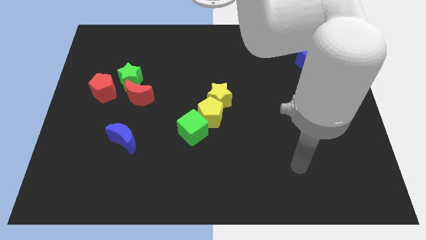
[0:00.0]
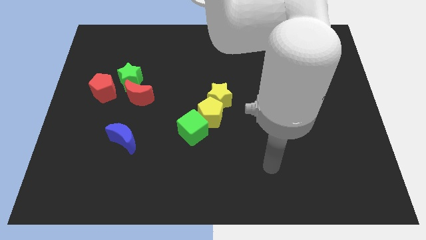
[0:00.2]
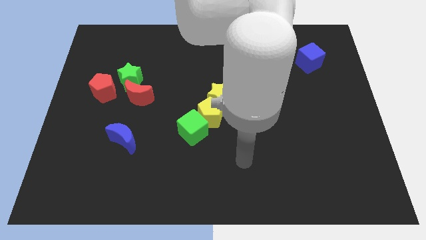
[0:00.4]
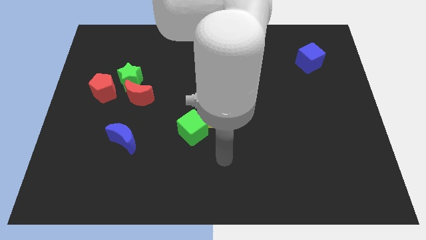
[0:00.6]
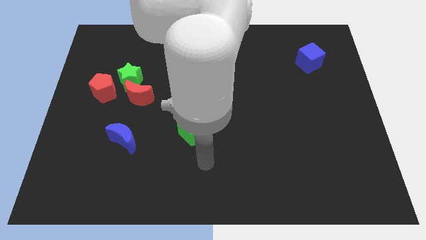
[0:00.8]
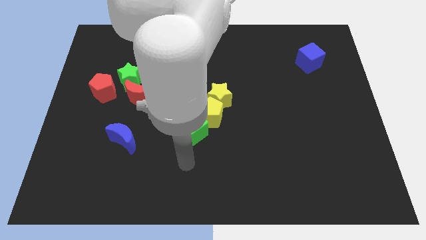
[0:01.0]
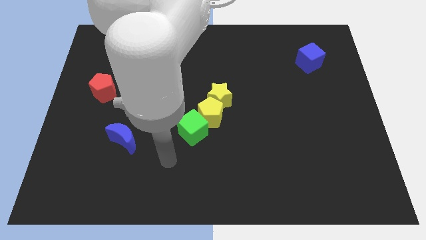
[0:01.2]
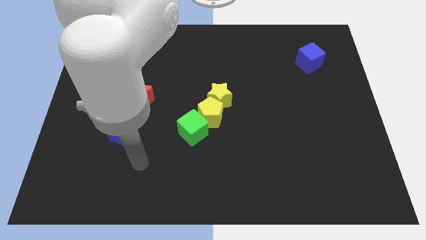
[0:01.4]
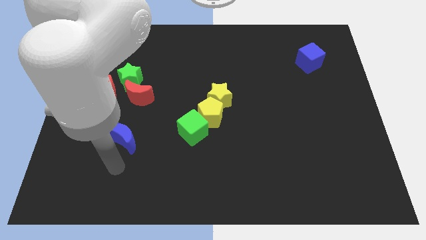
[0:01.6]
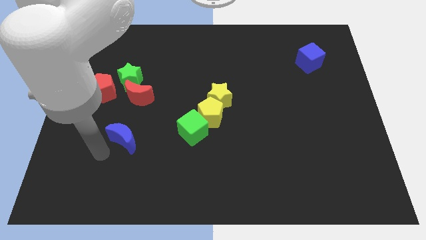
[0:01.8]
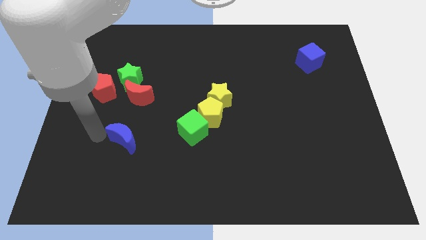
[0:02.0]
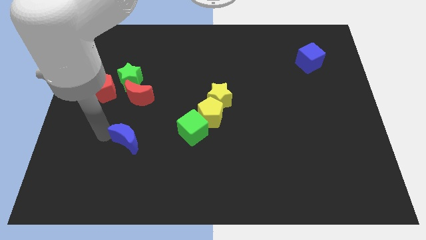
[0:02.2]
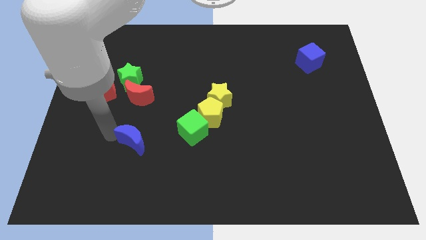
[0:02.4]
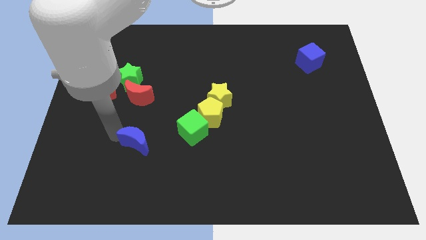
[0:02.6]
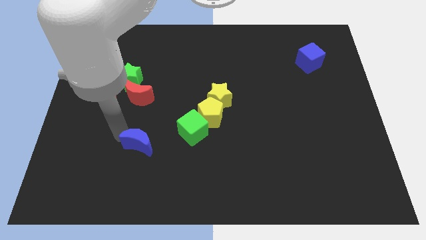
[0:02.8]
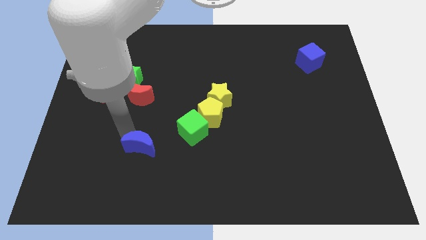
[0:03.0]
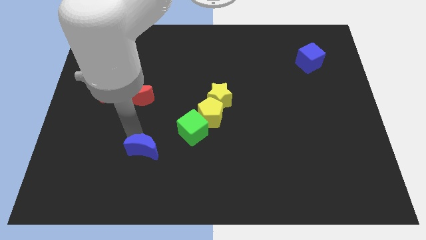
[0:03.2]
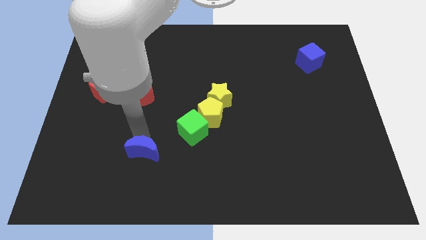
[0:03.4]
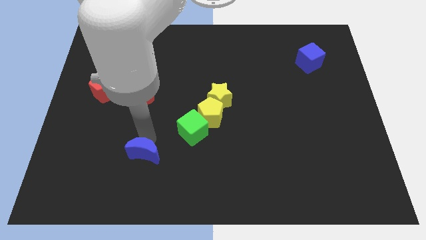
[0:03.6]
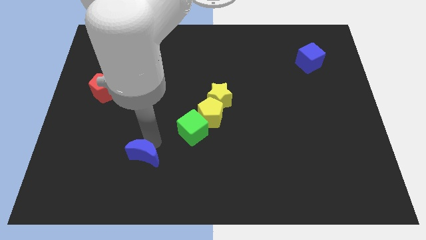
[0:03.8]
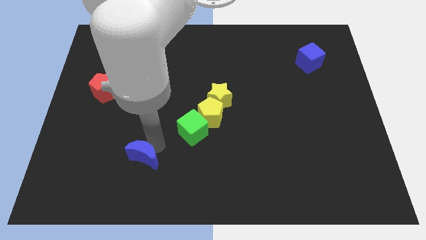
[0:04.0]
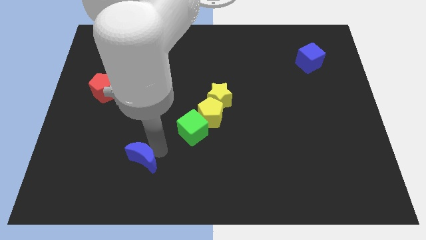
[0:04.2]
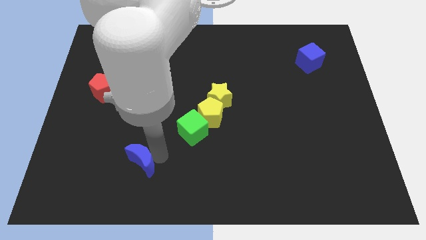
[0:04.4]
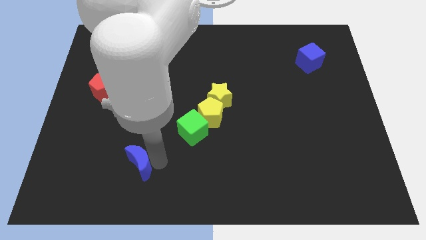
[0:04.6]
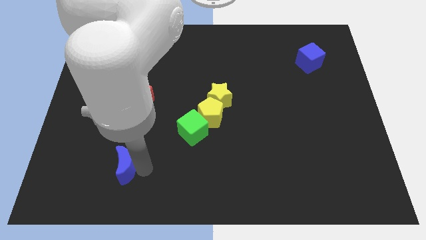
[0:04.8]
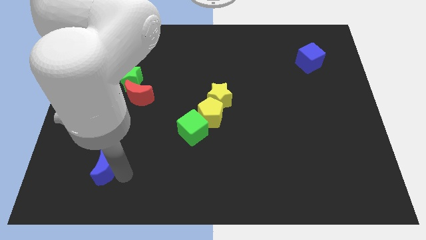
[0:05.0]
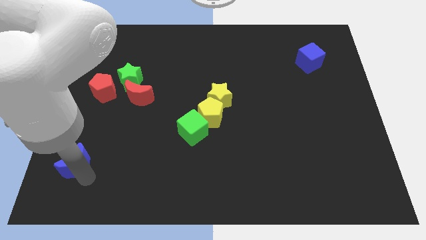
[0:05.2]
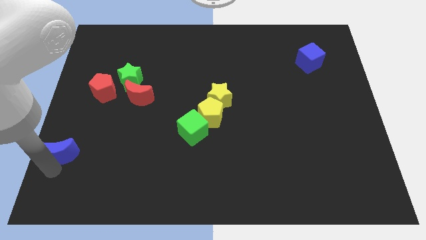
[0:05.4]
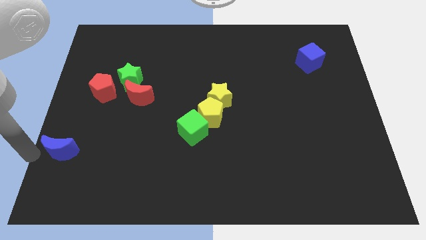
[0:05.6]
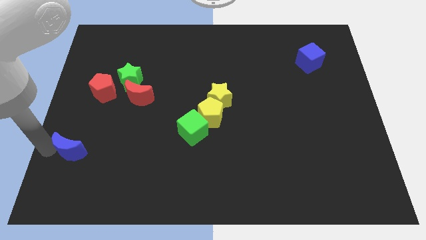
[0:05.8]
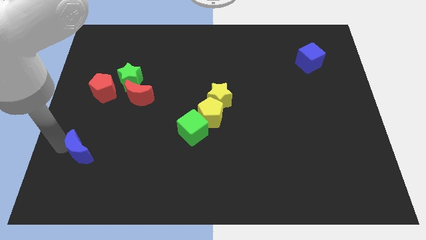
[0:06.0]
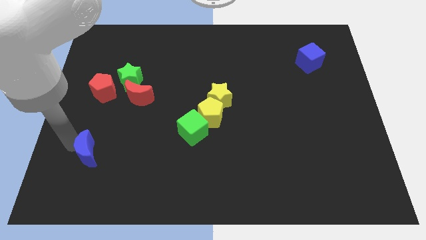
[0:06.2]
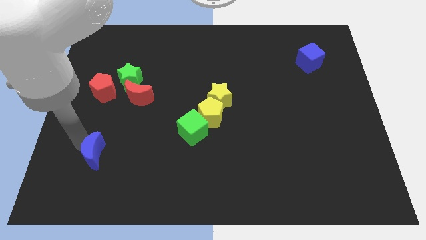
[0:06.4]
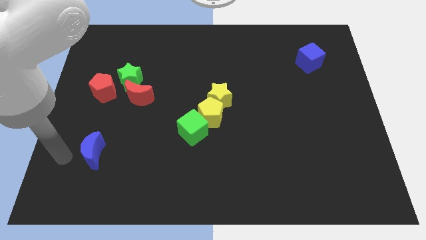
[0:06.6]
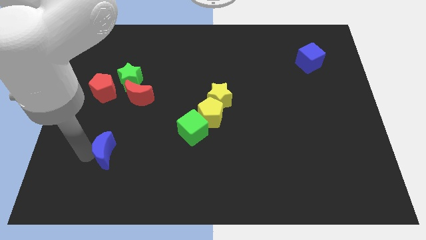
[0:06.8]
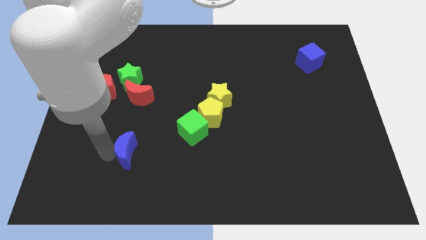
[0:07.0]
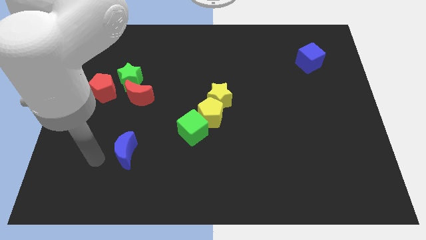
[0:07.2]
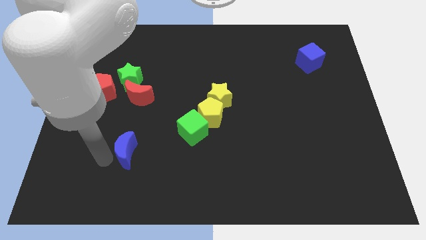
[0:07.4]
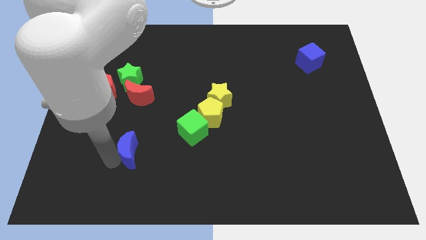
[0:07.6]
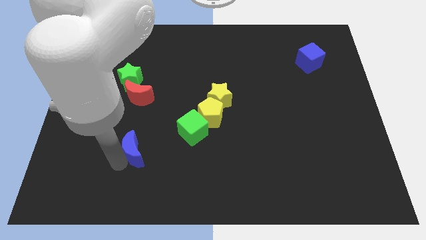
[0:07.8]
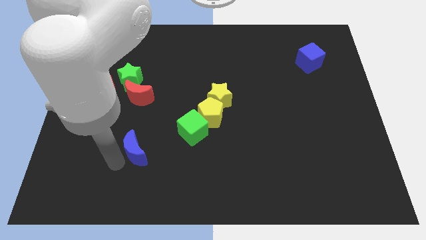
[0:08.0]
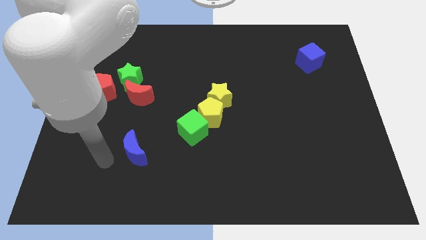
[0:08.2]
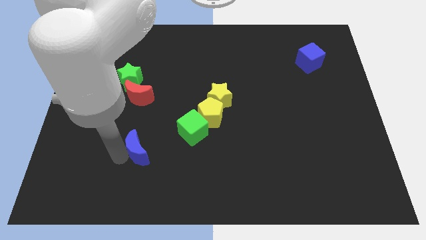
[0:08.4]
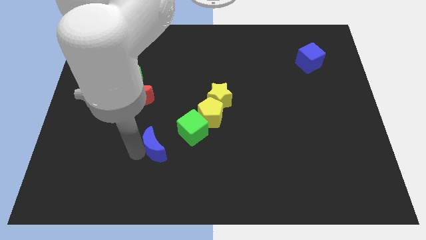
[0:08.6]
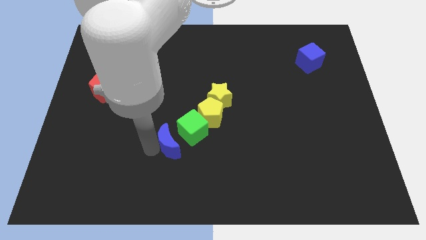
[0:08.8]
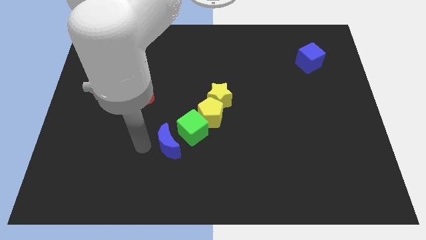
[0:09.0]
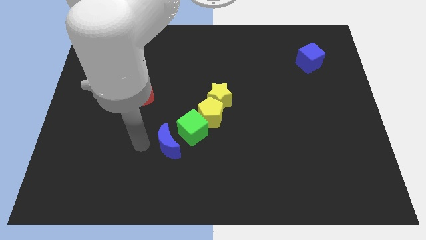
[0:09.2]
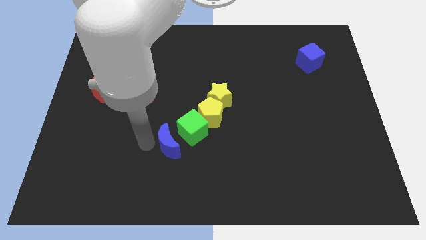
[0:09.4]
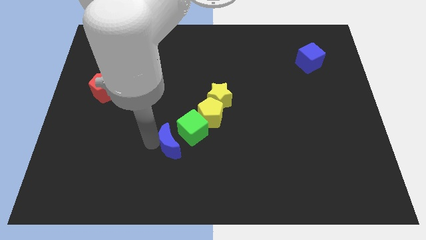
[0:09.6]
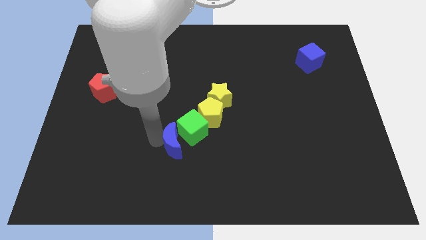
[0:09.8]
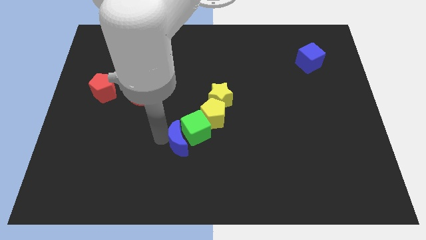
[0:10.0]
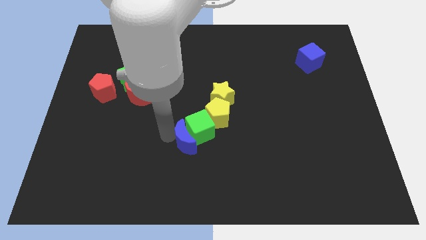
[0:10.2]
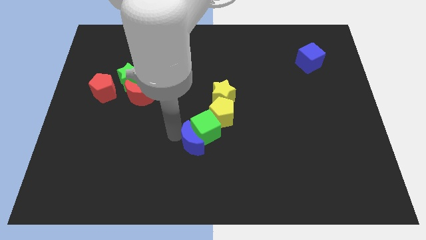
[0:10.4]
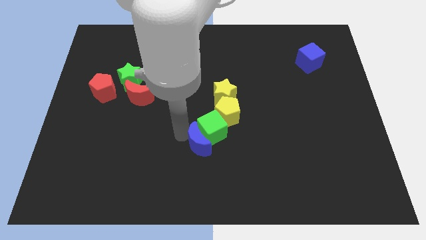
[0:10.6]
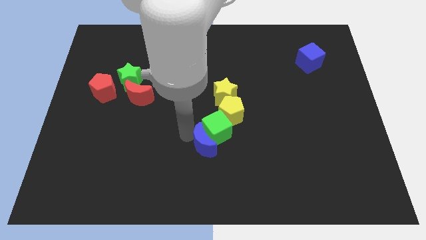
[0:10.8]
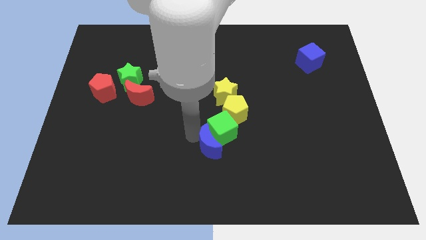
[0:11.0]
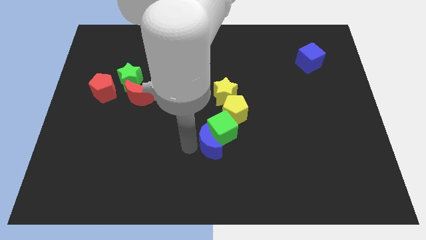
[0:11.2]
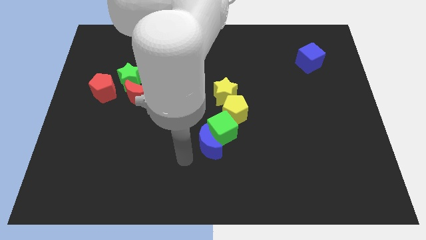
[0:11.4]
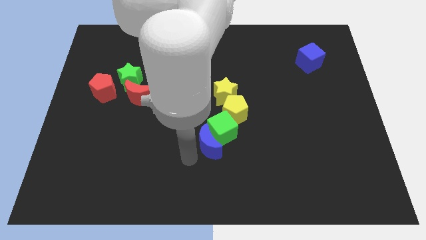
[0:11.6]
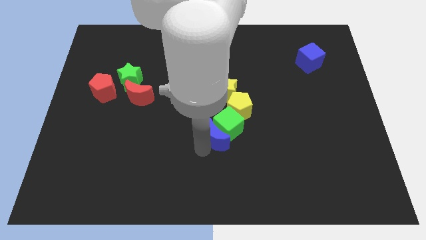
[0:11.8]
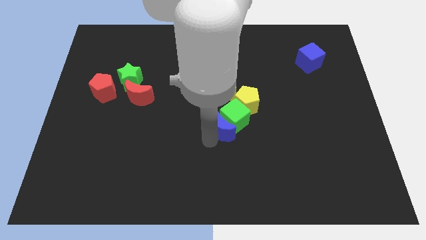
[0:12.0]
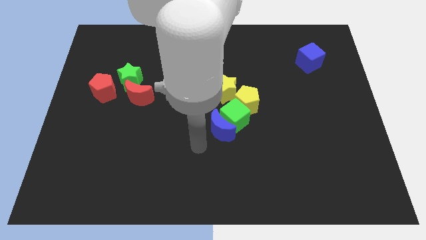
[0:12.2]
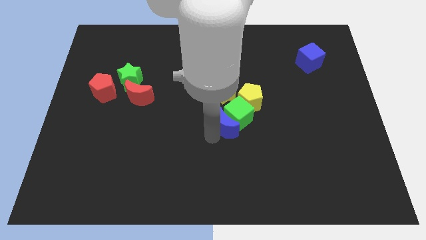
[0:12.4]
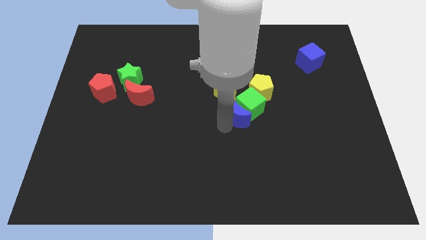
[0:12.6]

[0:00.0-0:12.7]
push the blue moon to the bottom right side of the yellow star

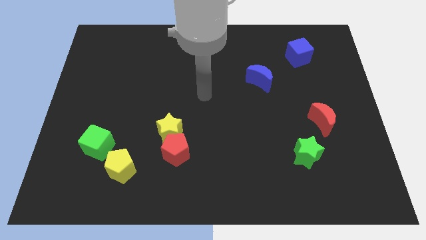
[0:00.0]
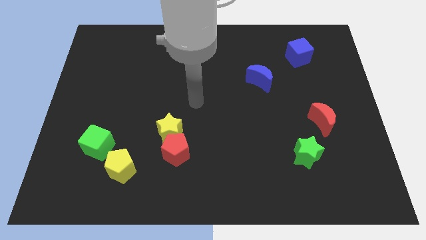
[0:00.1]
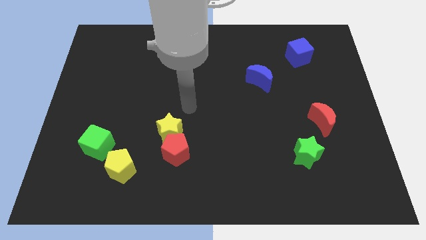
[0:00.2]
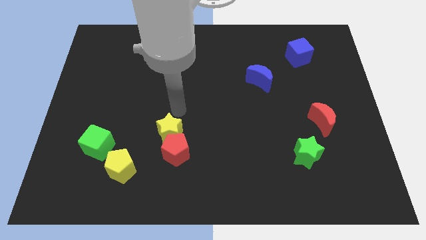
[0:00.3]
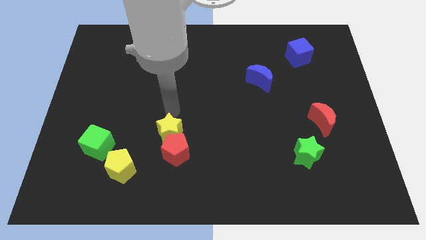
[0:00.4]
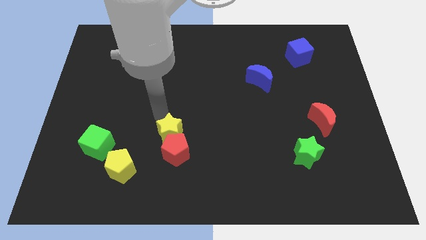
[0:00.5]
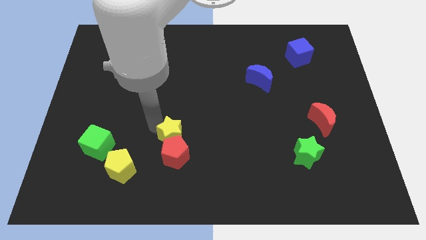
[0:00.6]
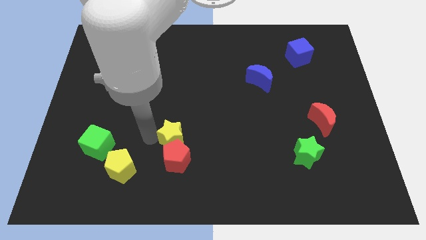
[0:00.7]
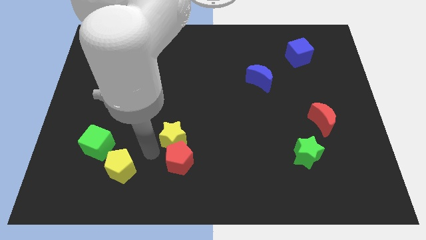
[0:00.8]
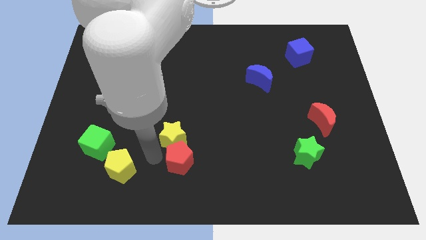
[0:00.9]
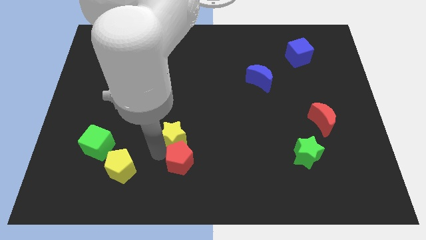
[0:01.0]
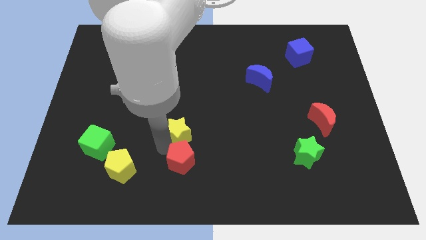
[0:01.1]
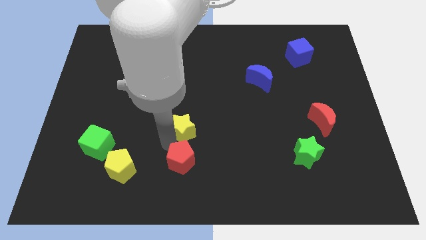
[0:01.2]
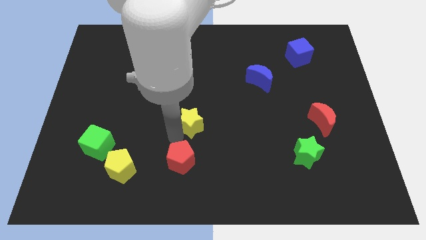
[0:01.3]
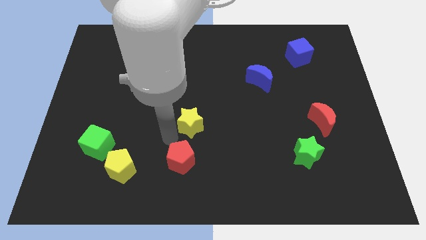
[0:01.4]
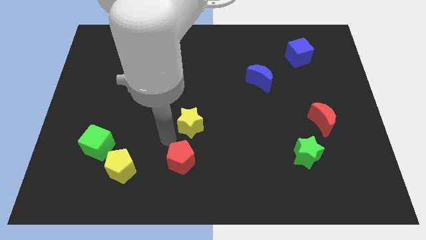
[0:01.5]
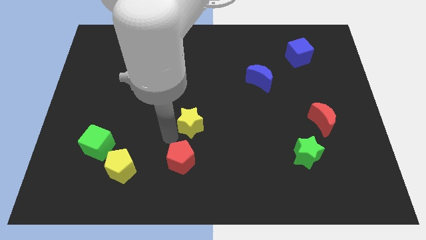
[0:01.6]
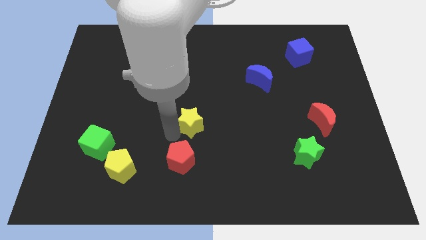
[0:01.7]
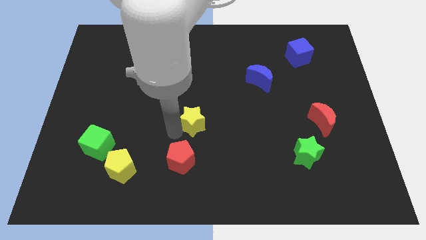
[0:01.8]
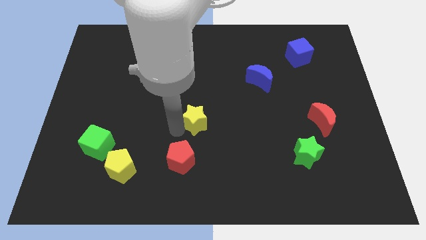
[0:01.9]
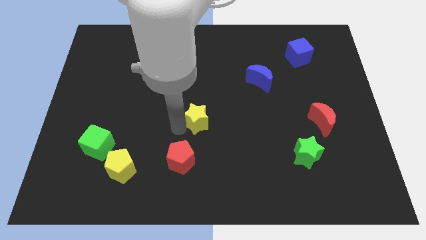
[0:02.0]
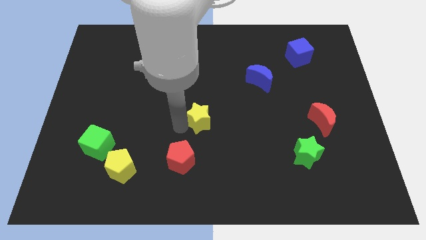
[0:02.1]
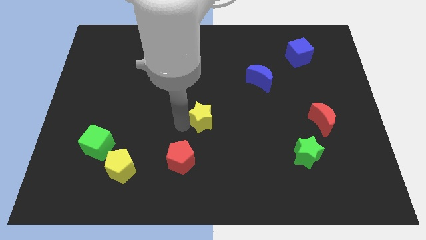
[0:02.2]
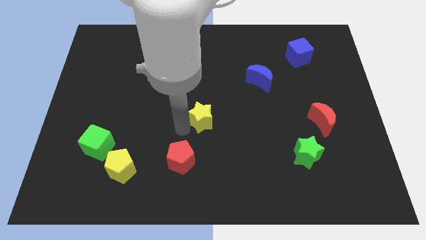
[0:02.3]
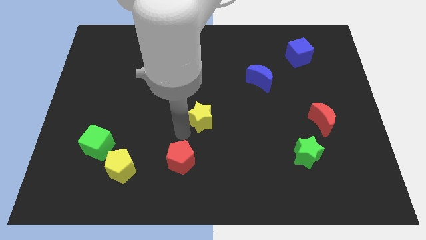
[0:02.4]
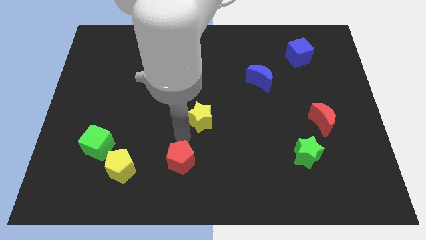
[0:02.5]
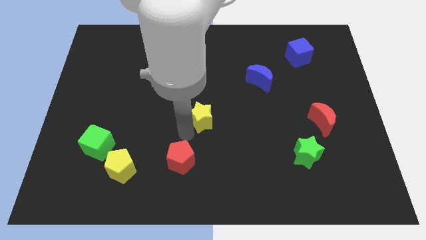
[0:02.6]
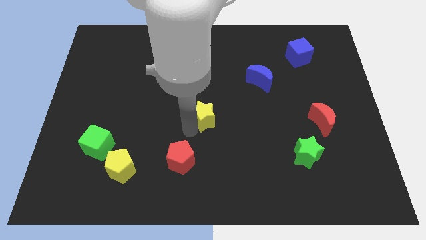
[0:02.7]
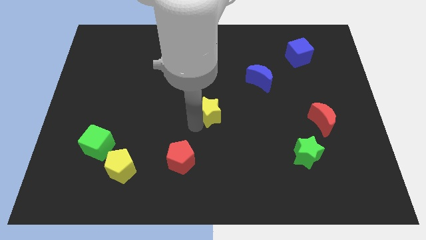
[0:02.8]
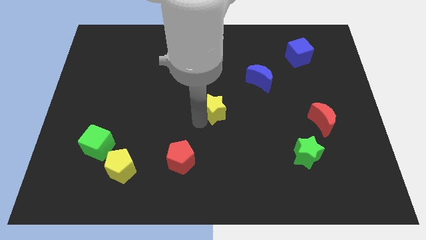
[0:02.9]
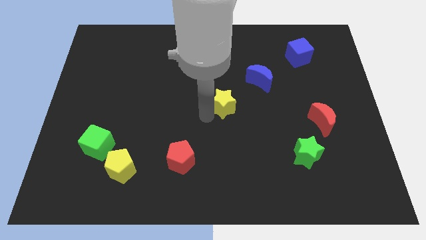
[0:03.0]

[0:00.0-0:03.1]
move the yellow star diagonally down and to the left of the blue moon
